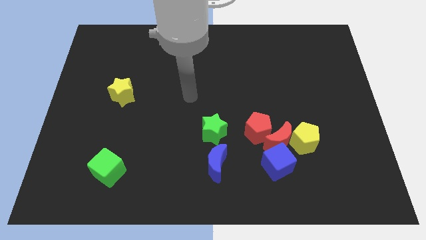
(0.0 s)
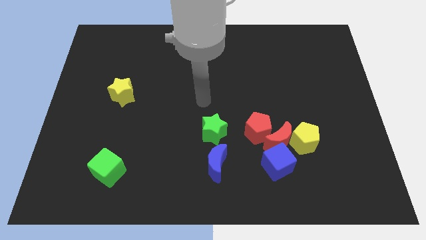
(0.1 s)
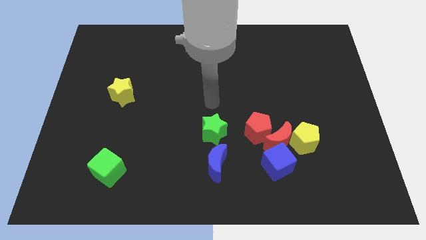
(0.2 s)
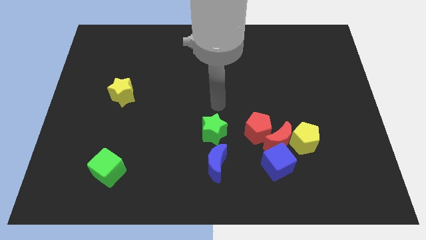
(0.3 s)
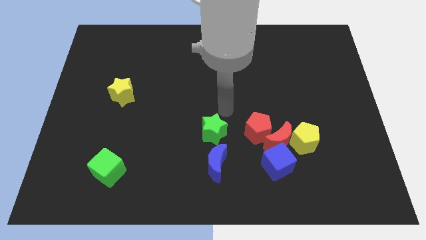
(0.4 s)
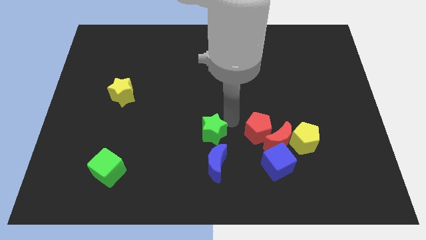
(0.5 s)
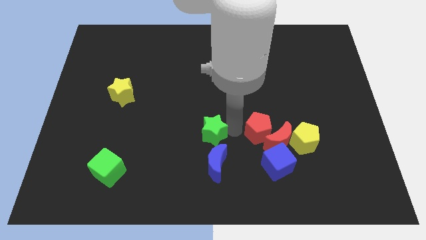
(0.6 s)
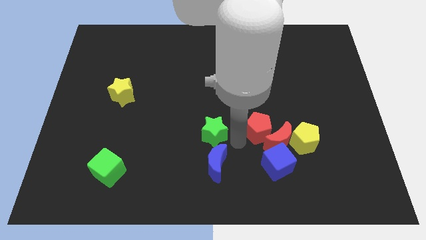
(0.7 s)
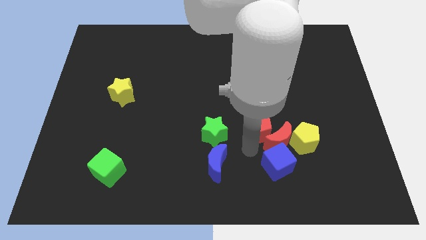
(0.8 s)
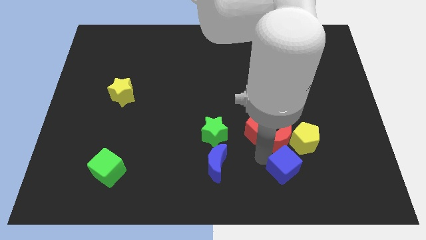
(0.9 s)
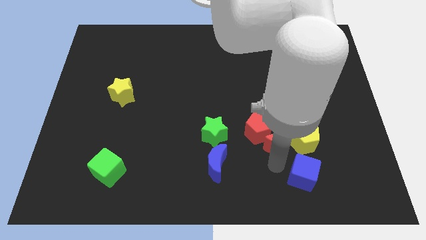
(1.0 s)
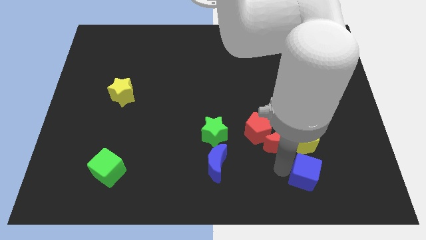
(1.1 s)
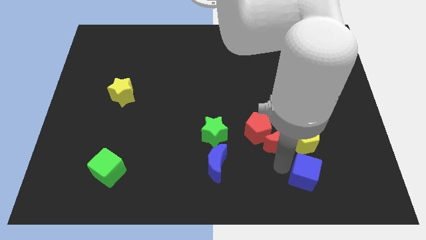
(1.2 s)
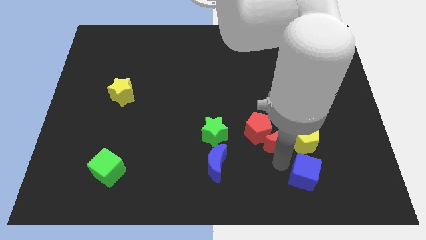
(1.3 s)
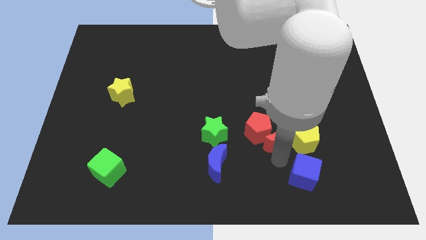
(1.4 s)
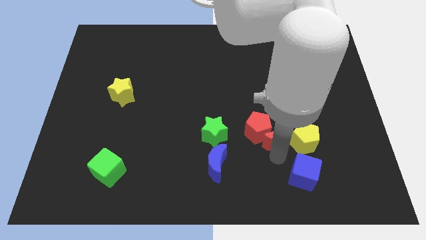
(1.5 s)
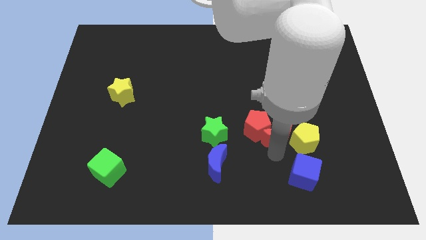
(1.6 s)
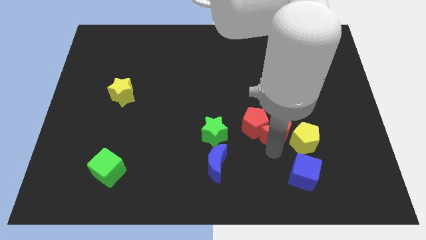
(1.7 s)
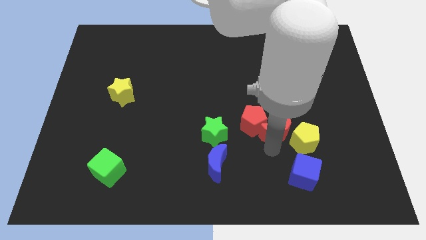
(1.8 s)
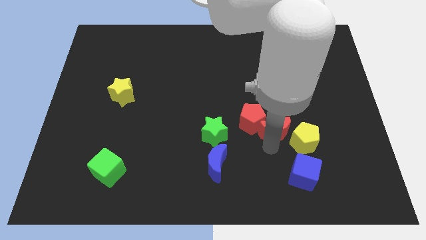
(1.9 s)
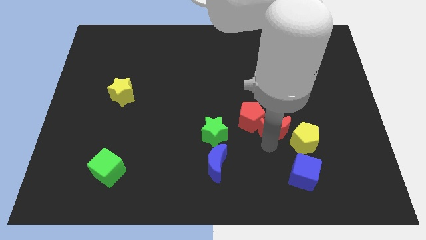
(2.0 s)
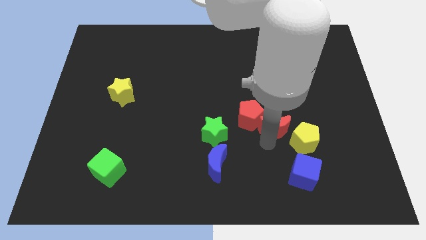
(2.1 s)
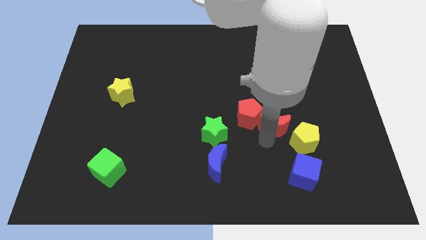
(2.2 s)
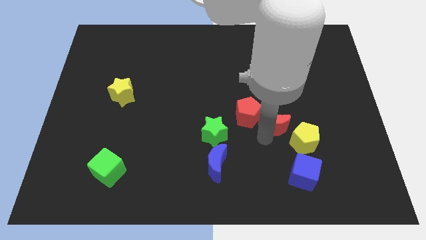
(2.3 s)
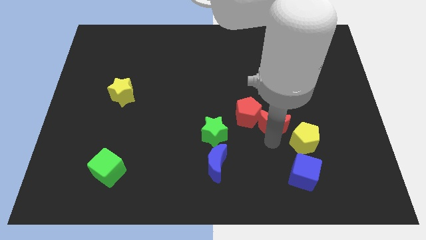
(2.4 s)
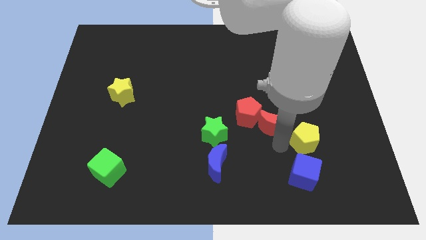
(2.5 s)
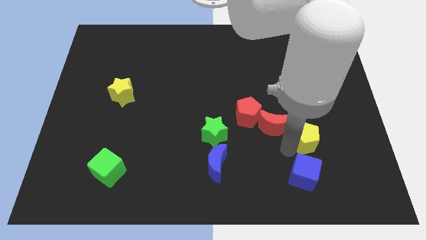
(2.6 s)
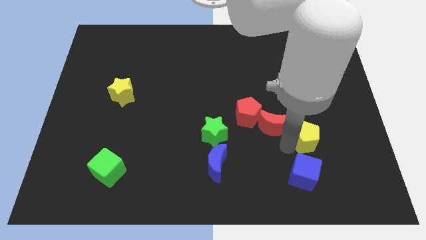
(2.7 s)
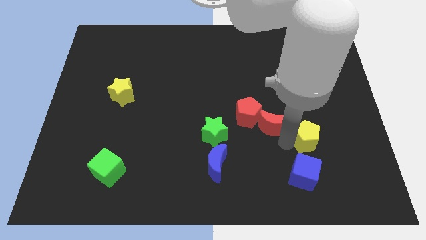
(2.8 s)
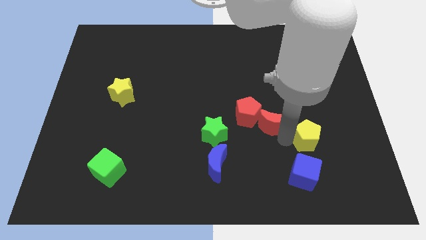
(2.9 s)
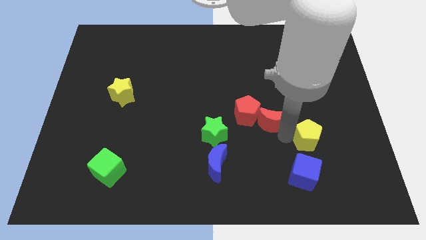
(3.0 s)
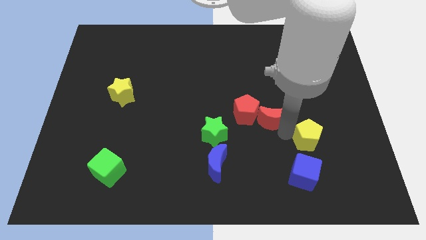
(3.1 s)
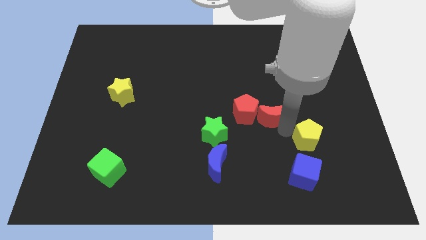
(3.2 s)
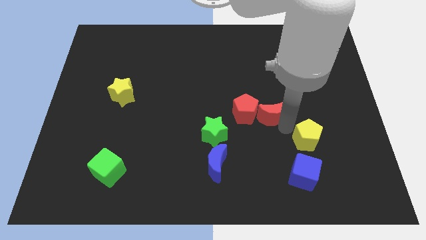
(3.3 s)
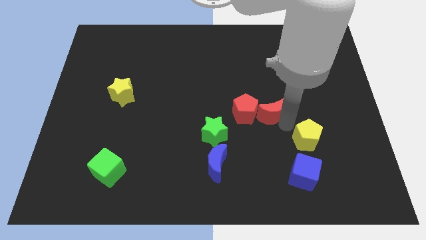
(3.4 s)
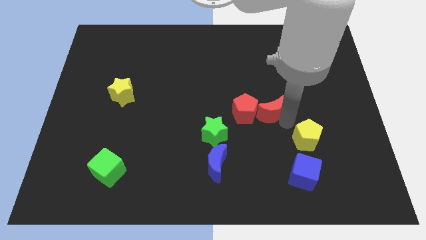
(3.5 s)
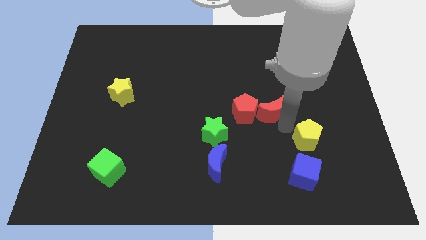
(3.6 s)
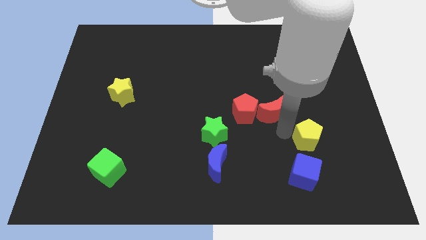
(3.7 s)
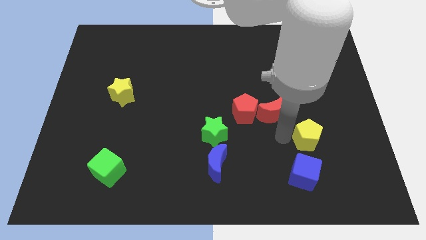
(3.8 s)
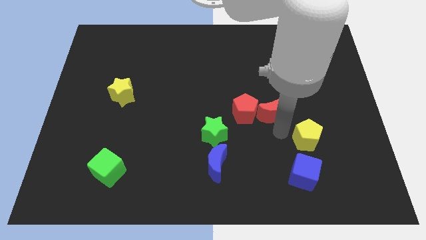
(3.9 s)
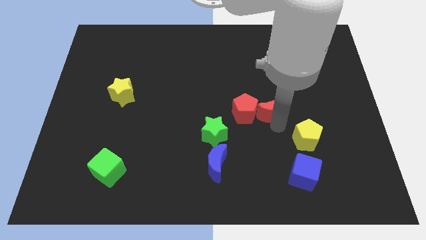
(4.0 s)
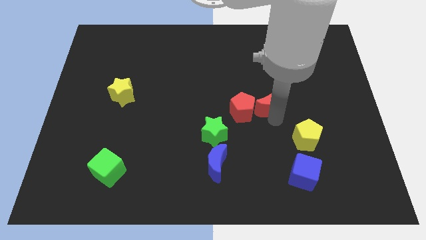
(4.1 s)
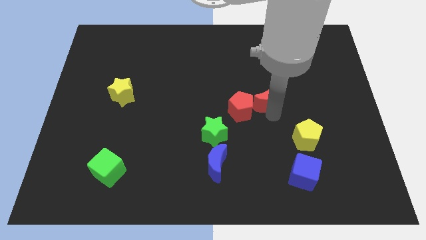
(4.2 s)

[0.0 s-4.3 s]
pull the red moon apart from the group

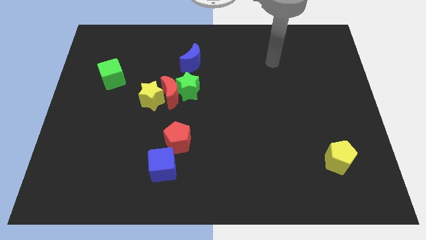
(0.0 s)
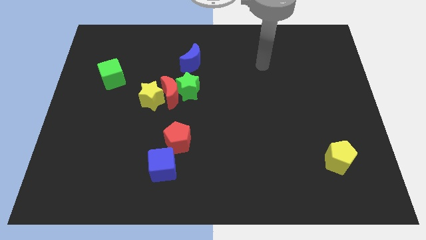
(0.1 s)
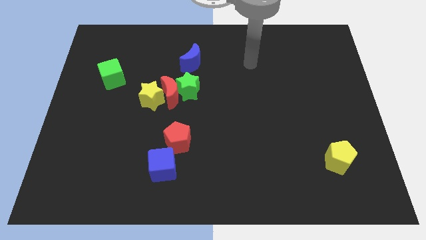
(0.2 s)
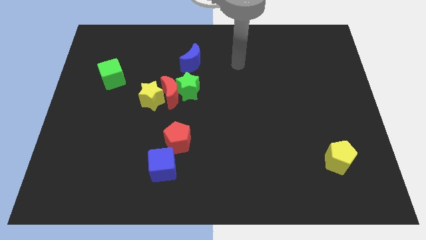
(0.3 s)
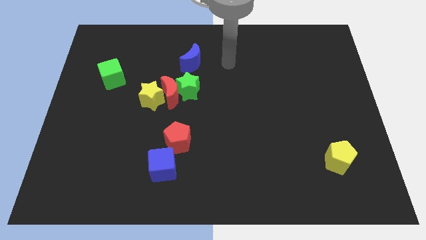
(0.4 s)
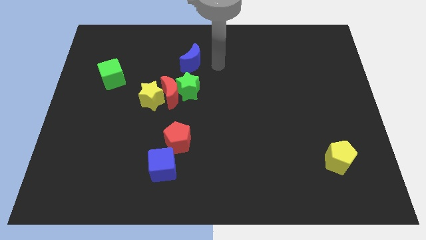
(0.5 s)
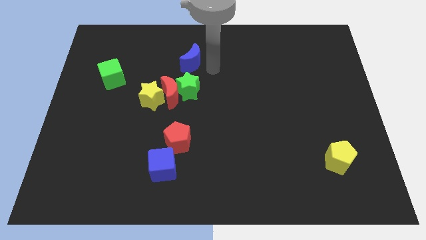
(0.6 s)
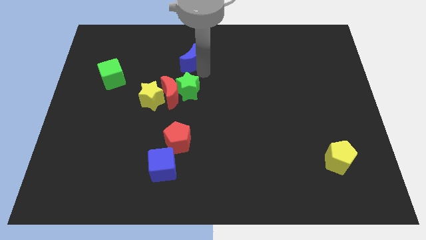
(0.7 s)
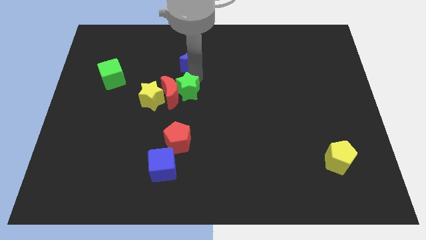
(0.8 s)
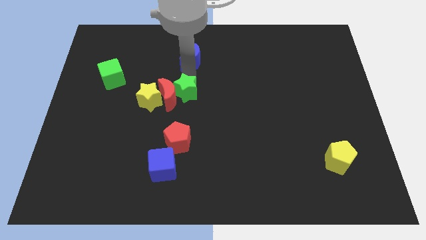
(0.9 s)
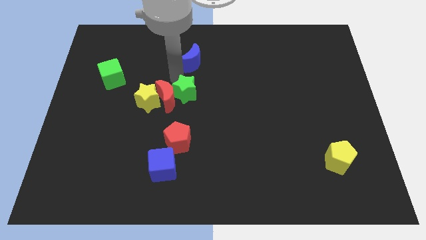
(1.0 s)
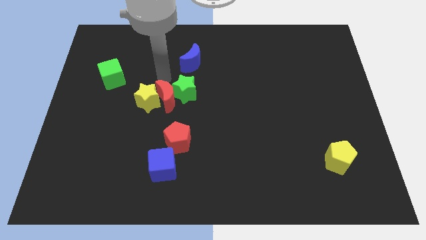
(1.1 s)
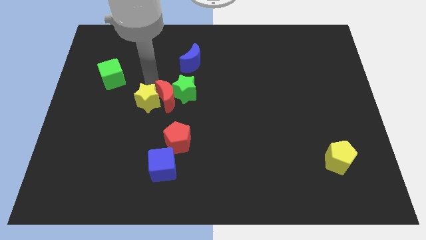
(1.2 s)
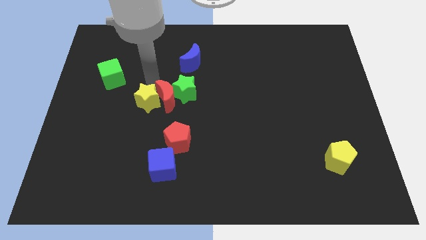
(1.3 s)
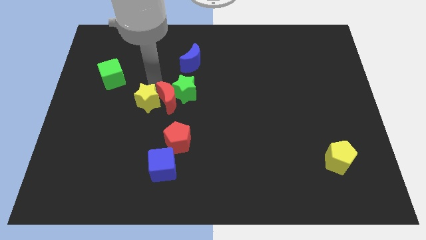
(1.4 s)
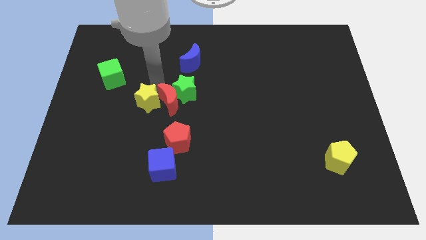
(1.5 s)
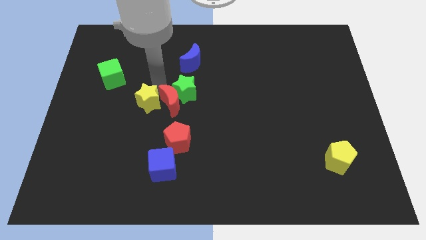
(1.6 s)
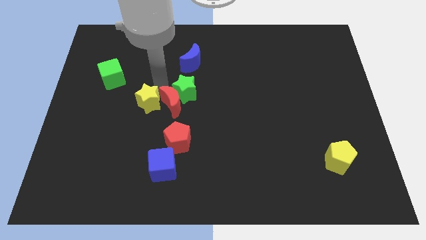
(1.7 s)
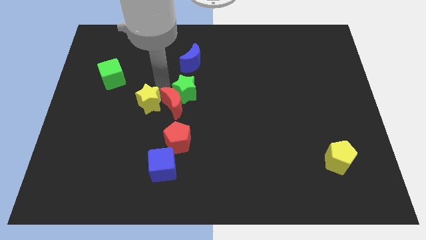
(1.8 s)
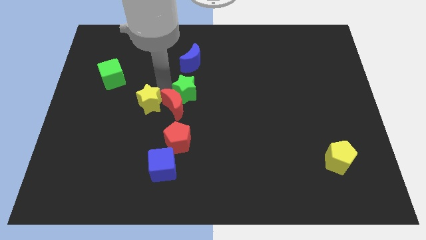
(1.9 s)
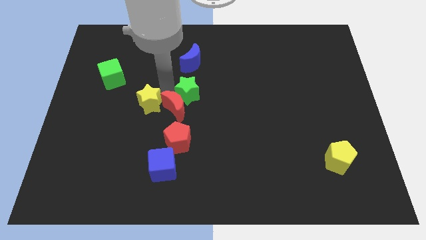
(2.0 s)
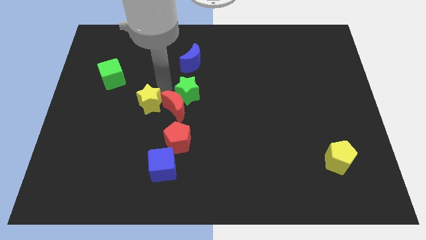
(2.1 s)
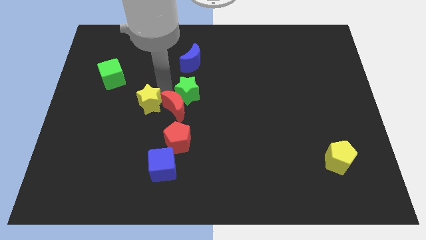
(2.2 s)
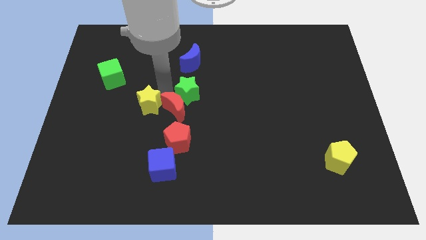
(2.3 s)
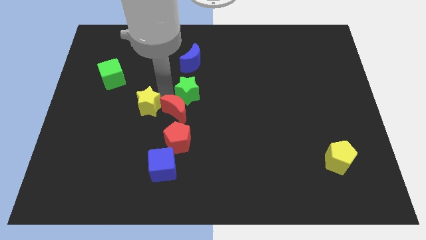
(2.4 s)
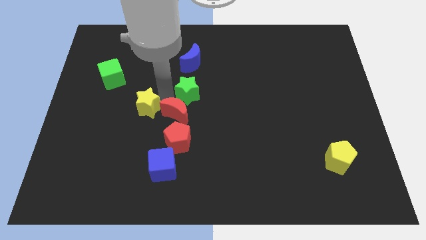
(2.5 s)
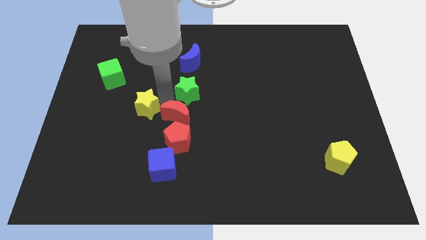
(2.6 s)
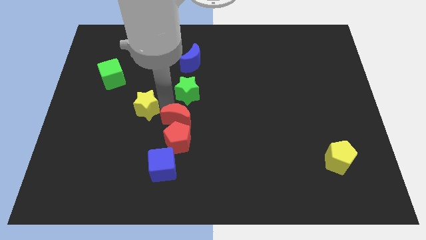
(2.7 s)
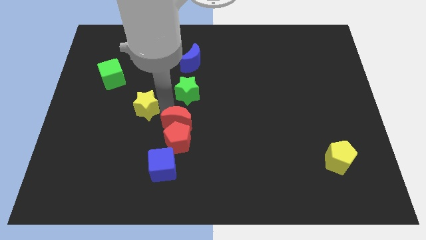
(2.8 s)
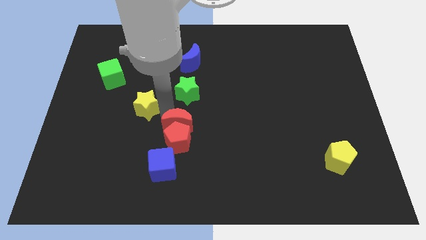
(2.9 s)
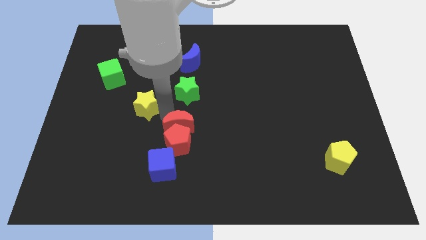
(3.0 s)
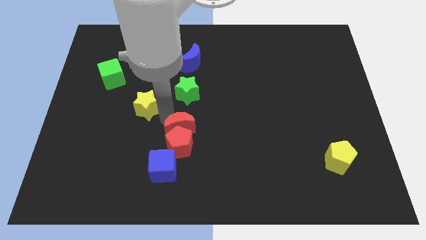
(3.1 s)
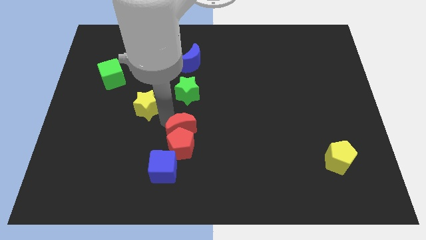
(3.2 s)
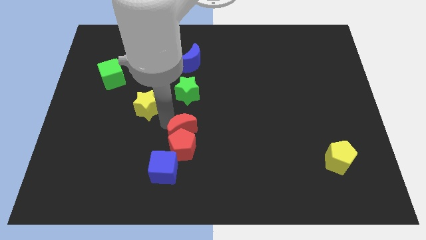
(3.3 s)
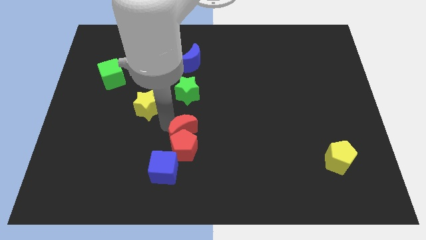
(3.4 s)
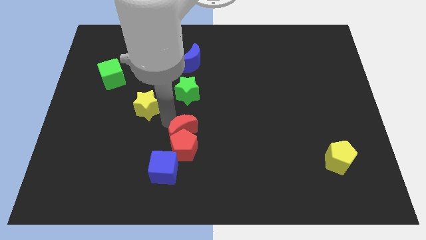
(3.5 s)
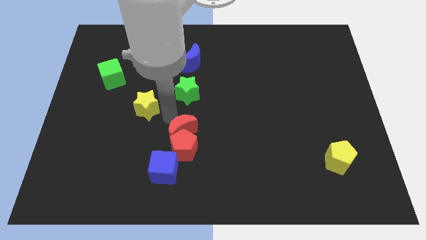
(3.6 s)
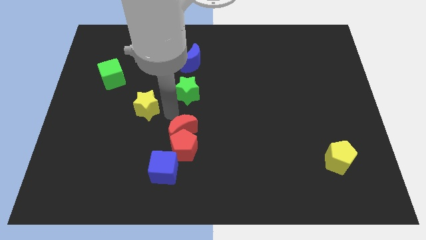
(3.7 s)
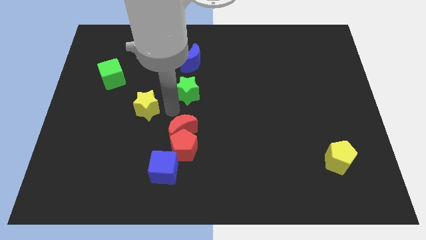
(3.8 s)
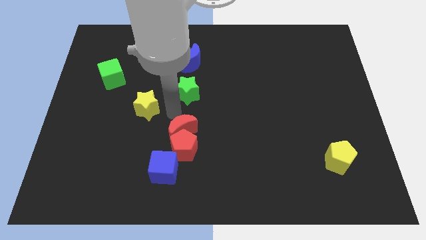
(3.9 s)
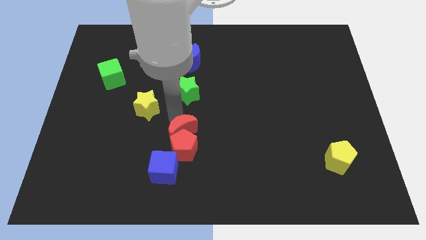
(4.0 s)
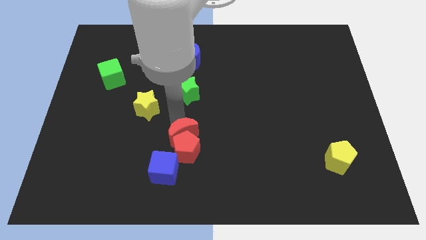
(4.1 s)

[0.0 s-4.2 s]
separate the red moon from the green star and yellow star

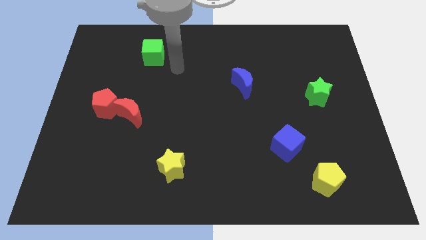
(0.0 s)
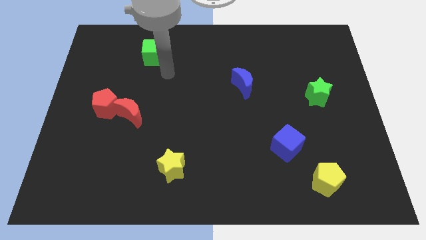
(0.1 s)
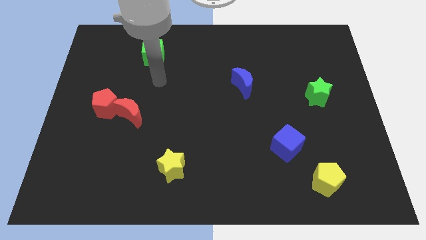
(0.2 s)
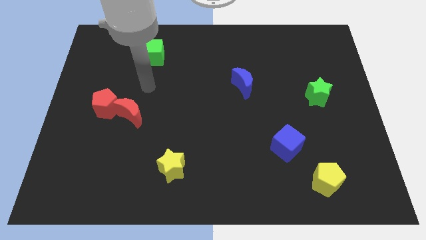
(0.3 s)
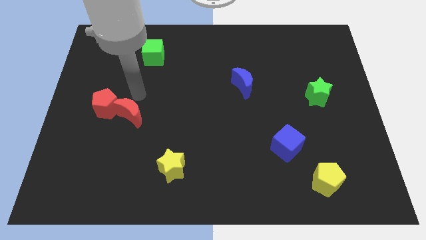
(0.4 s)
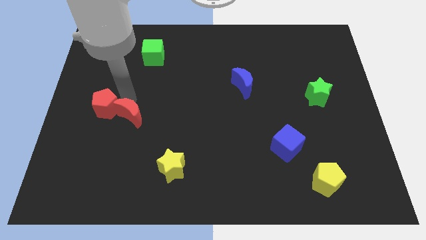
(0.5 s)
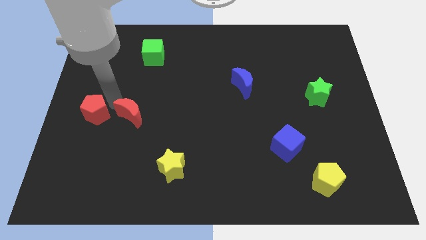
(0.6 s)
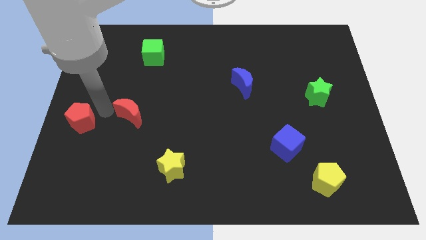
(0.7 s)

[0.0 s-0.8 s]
separate the red moon from the red pentagon

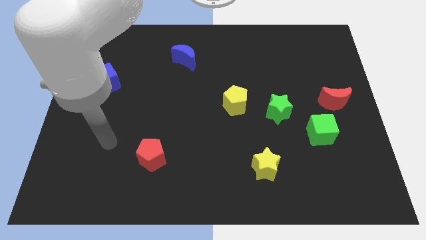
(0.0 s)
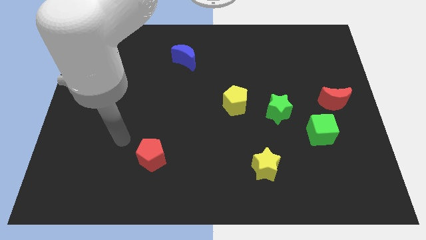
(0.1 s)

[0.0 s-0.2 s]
pull the green star apart from the yellow pentagon
